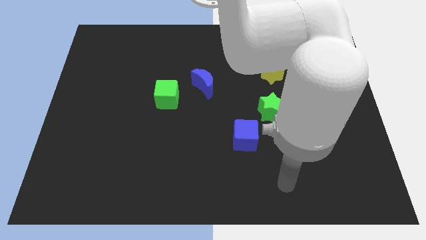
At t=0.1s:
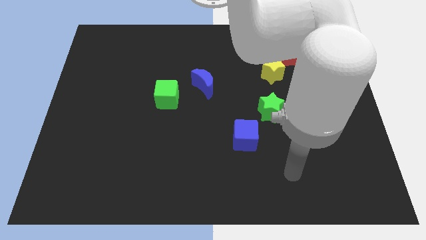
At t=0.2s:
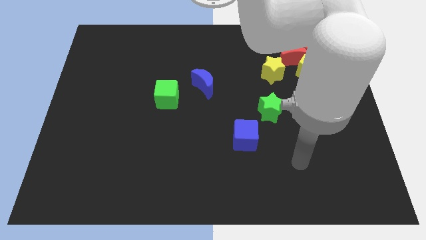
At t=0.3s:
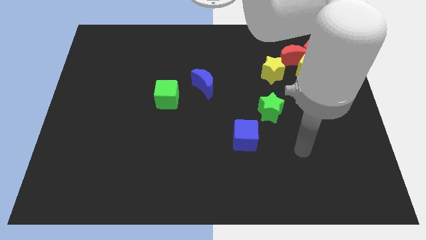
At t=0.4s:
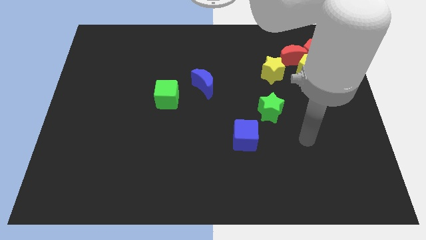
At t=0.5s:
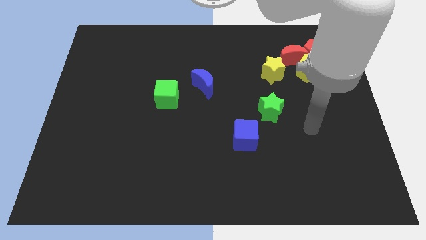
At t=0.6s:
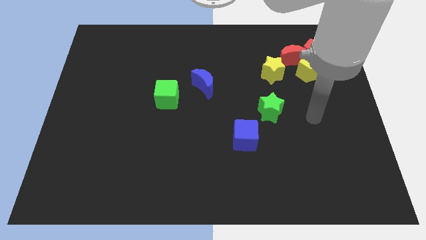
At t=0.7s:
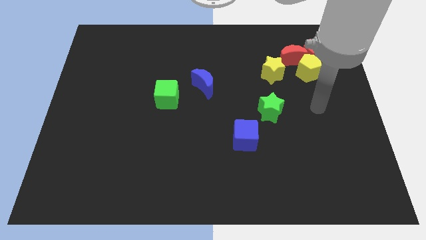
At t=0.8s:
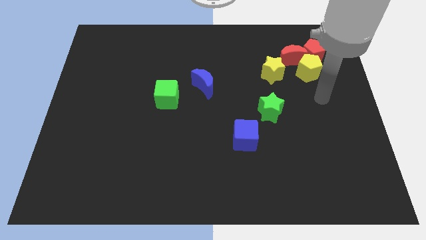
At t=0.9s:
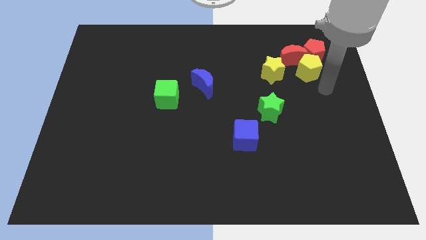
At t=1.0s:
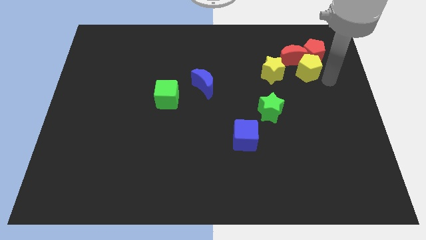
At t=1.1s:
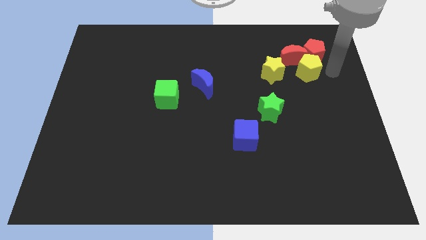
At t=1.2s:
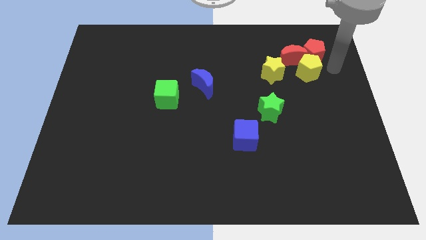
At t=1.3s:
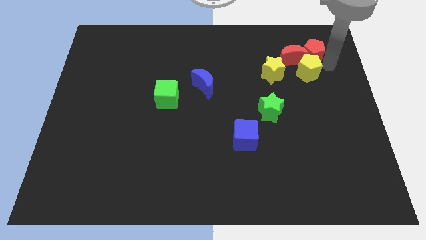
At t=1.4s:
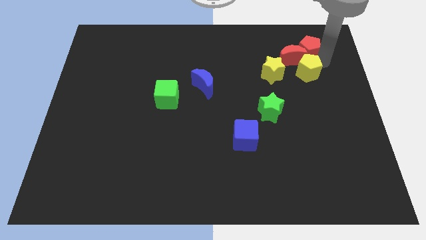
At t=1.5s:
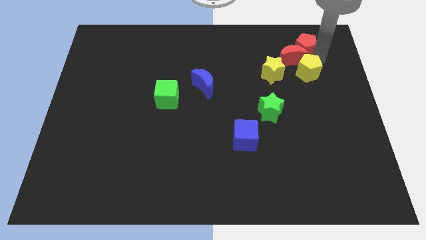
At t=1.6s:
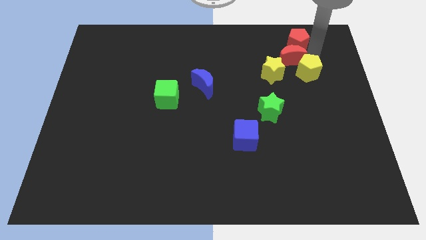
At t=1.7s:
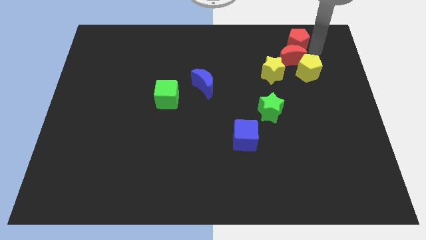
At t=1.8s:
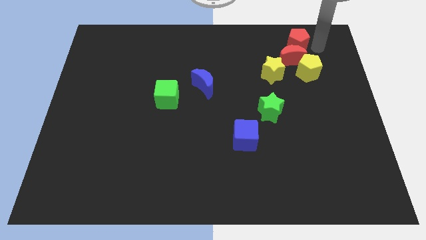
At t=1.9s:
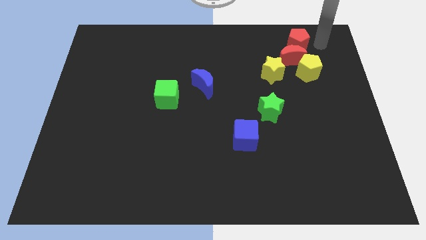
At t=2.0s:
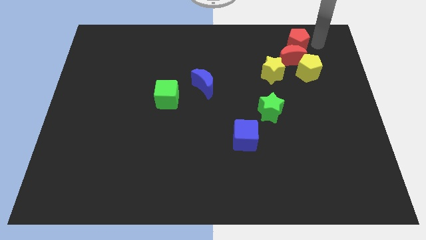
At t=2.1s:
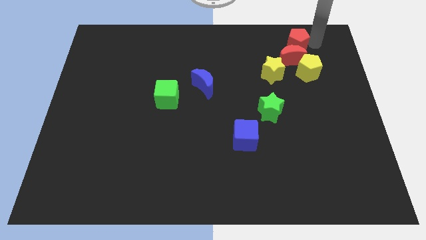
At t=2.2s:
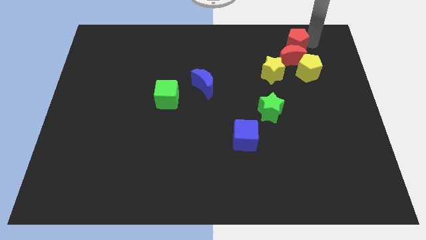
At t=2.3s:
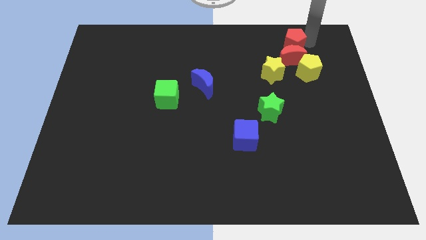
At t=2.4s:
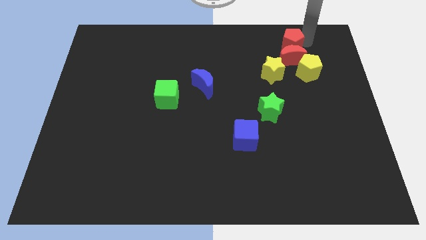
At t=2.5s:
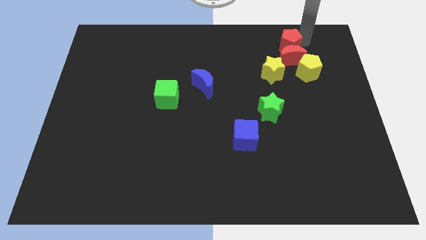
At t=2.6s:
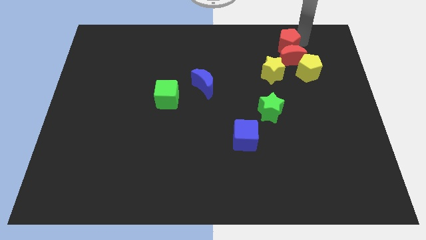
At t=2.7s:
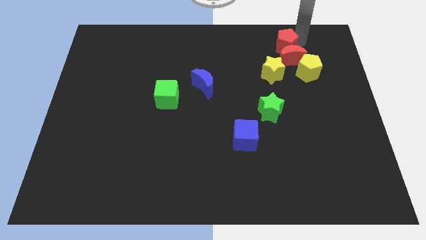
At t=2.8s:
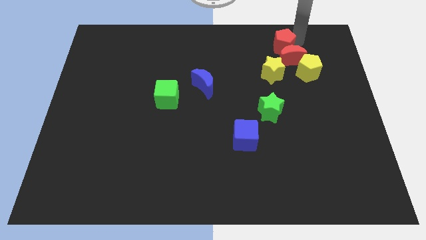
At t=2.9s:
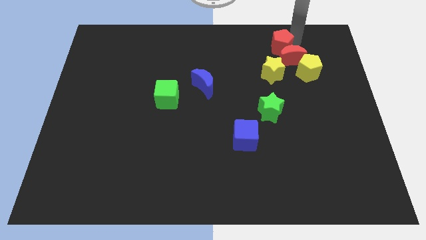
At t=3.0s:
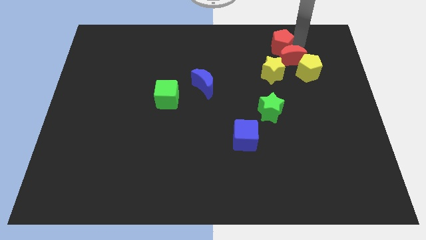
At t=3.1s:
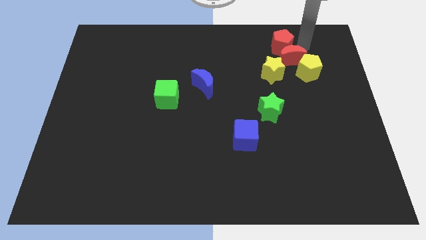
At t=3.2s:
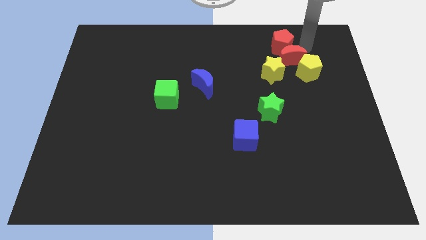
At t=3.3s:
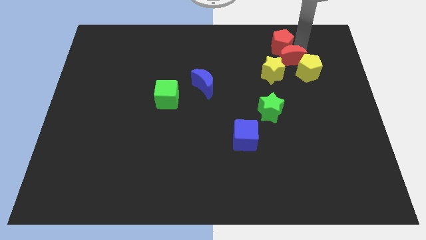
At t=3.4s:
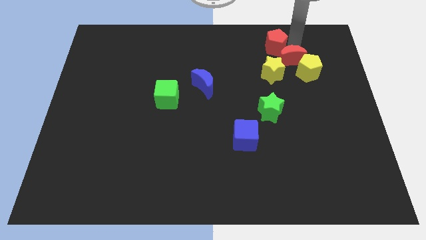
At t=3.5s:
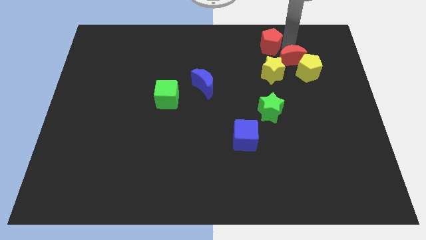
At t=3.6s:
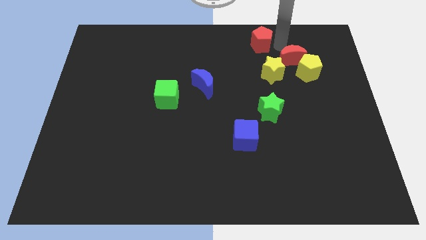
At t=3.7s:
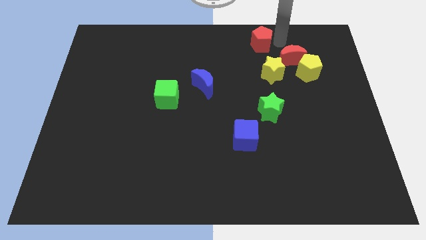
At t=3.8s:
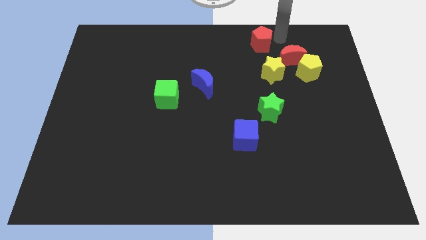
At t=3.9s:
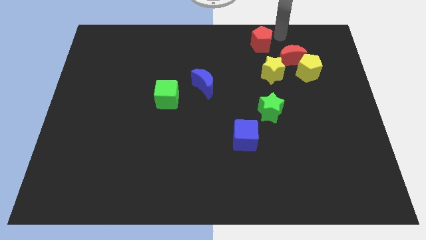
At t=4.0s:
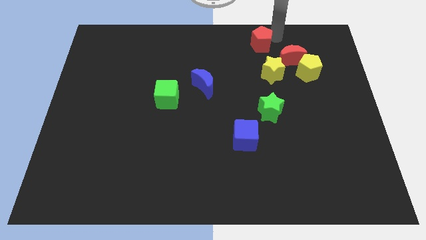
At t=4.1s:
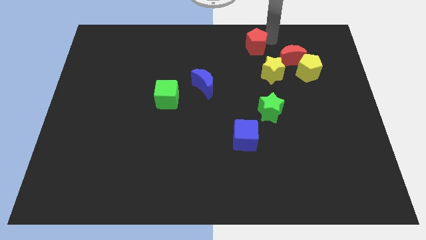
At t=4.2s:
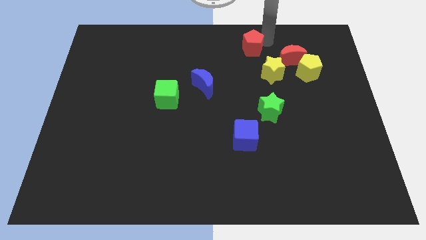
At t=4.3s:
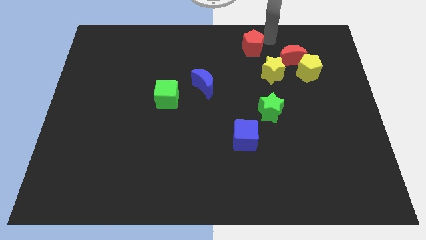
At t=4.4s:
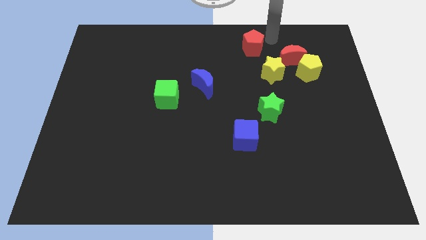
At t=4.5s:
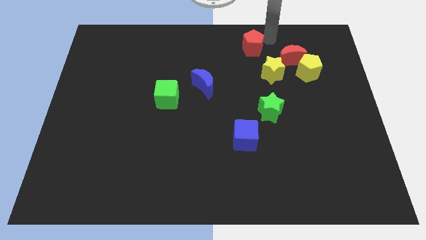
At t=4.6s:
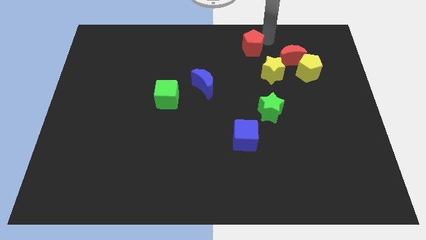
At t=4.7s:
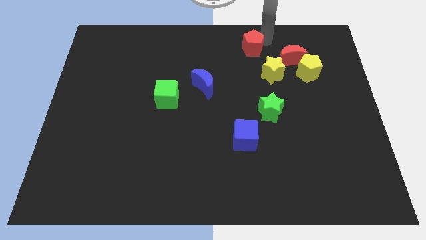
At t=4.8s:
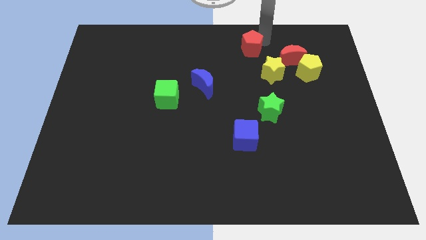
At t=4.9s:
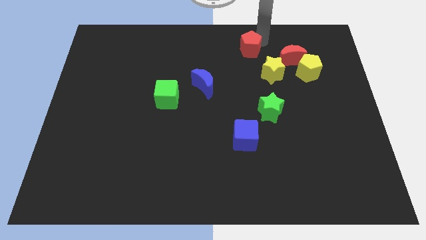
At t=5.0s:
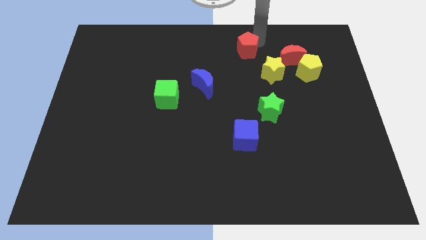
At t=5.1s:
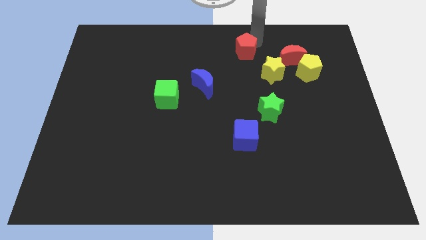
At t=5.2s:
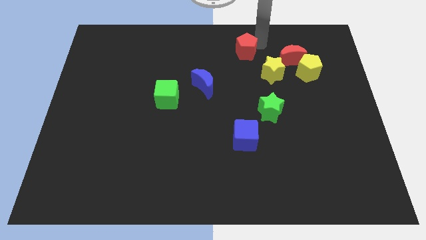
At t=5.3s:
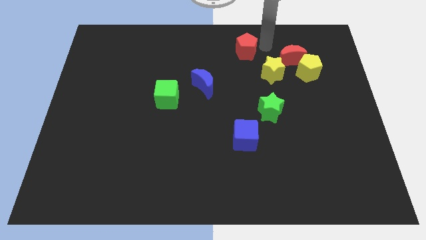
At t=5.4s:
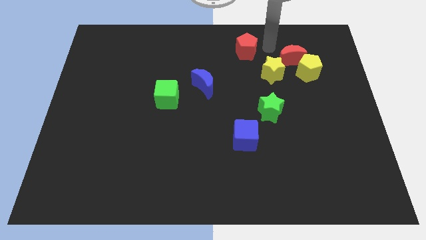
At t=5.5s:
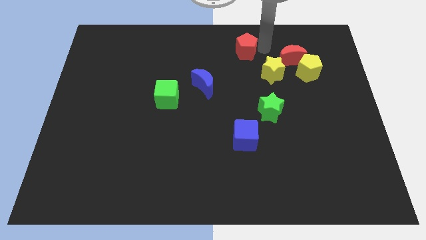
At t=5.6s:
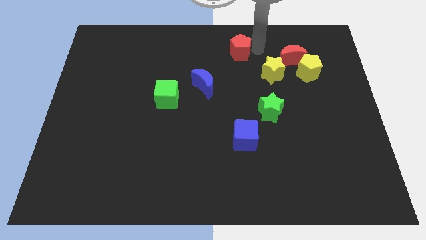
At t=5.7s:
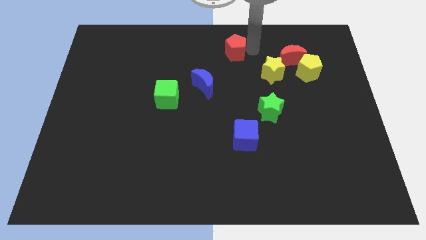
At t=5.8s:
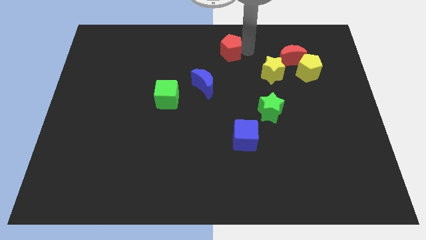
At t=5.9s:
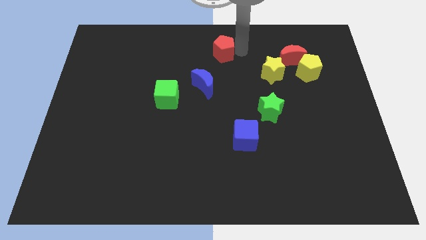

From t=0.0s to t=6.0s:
push the red pentagon above the blue moon

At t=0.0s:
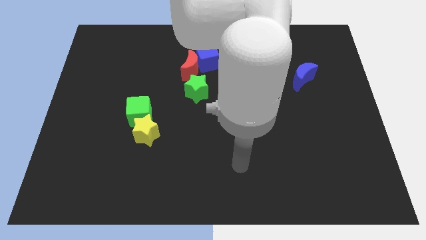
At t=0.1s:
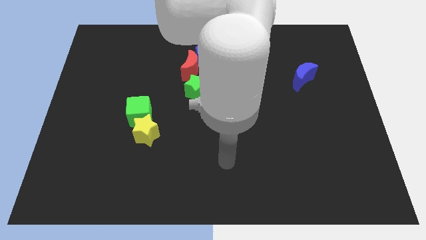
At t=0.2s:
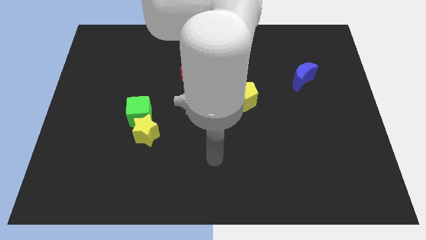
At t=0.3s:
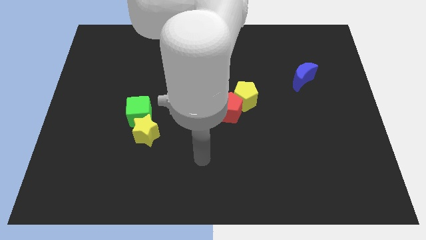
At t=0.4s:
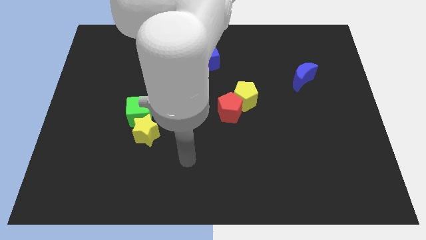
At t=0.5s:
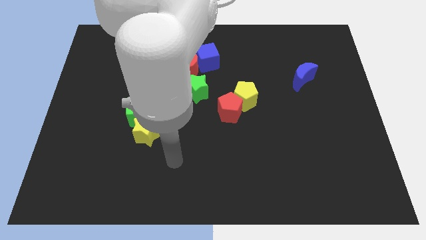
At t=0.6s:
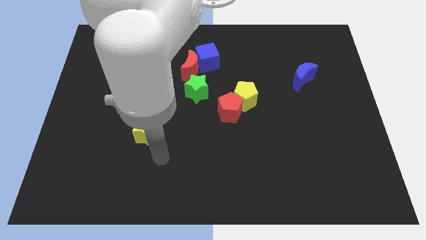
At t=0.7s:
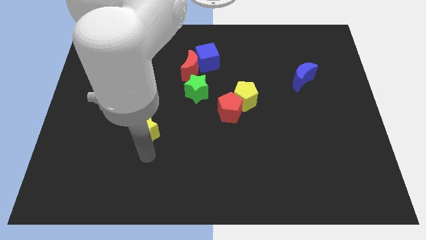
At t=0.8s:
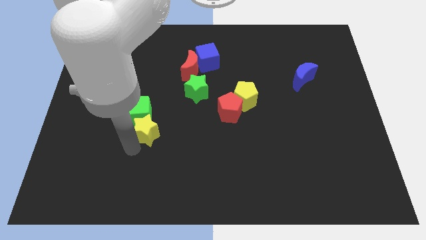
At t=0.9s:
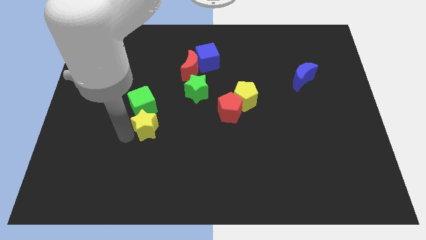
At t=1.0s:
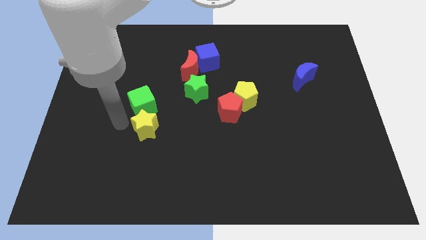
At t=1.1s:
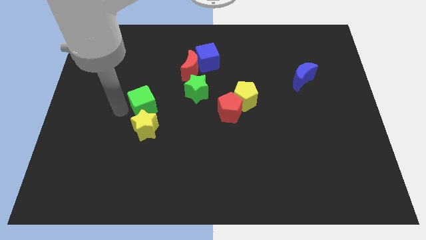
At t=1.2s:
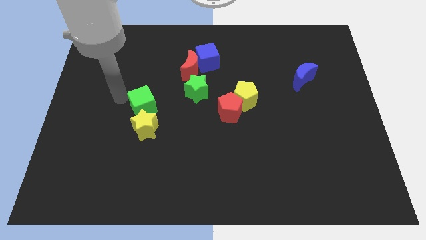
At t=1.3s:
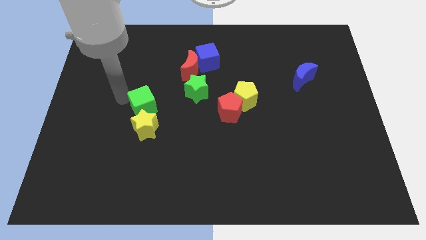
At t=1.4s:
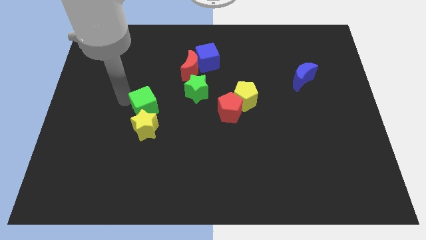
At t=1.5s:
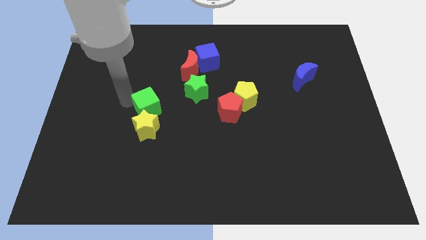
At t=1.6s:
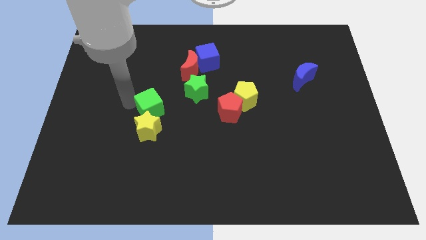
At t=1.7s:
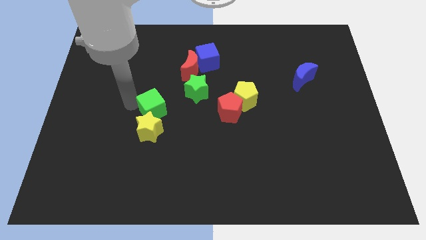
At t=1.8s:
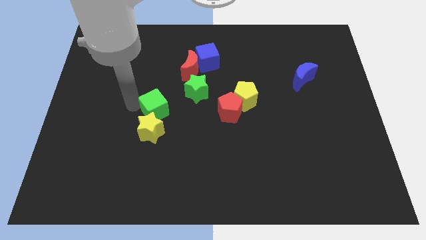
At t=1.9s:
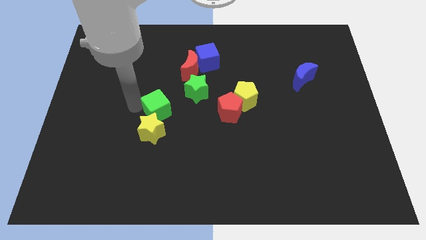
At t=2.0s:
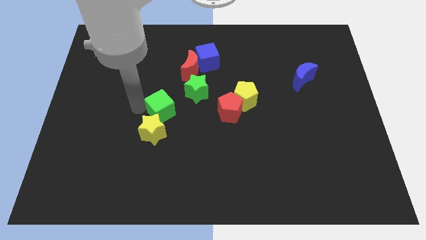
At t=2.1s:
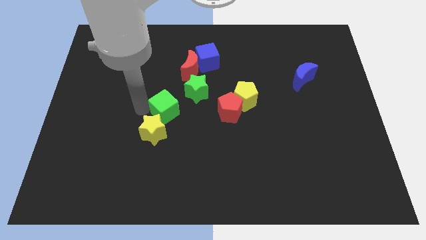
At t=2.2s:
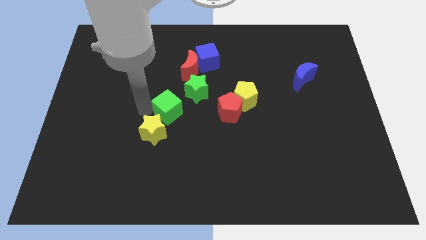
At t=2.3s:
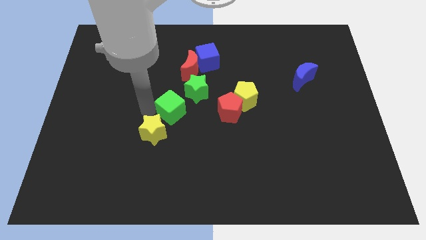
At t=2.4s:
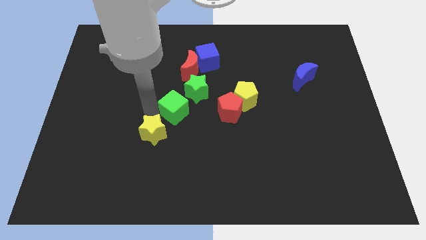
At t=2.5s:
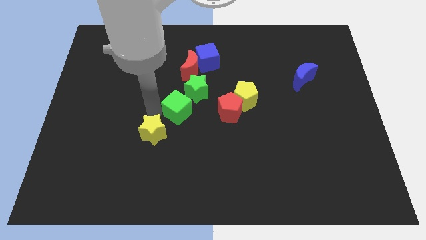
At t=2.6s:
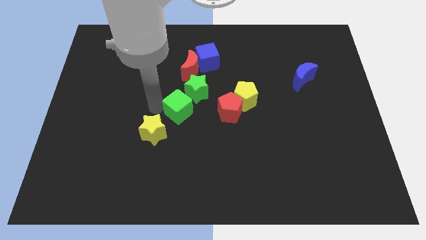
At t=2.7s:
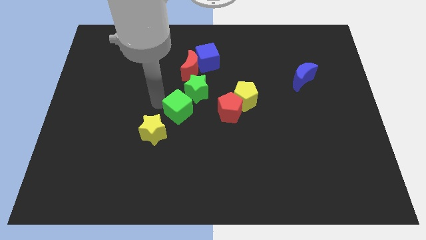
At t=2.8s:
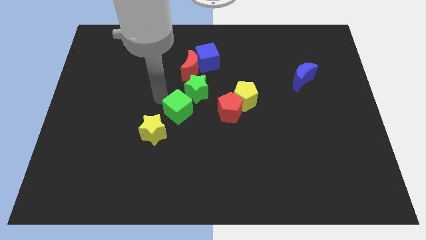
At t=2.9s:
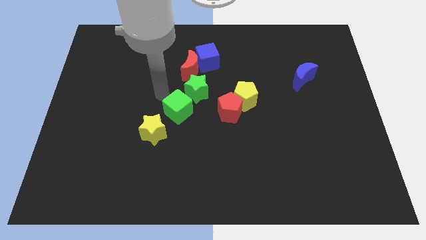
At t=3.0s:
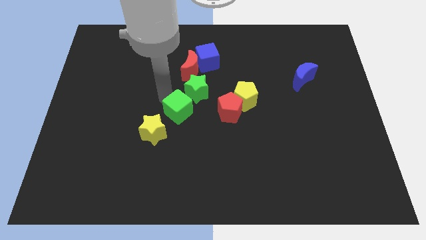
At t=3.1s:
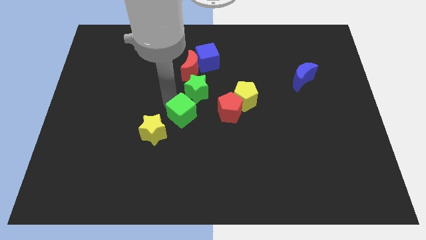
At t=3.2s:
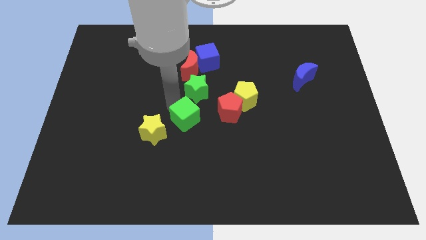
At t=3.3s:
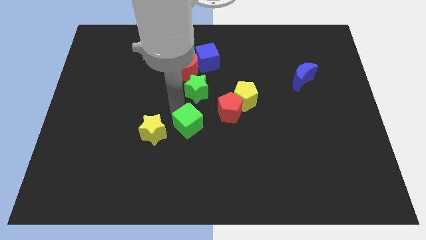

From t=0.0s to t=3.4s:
put the green cube to the bottom left of the red pentagon
